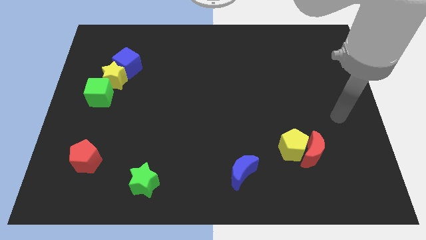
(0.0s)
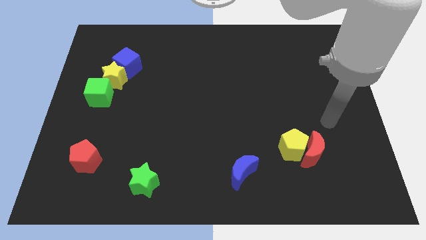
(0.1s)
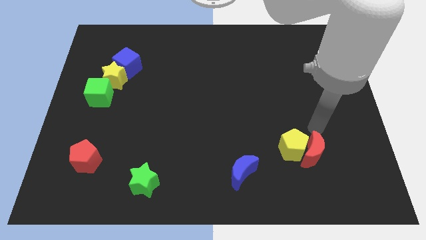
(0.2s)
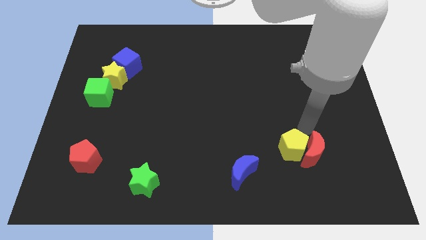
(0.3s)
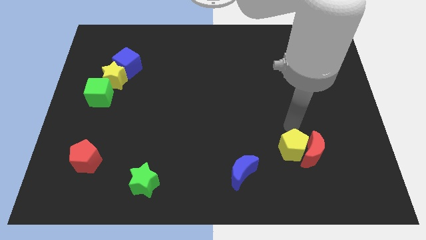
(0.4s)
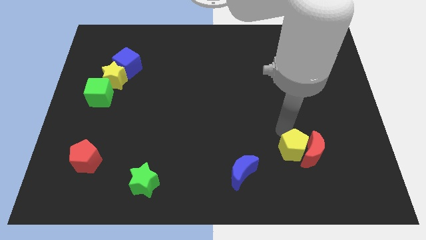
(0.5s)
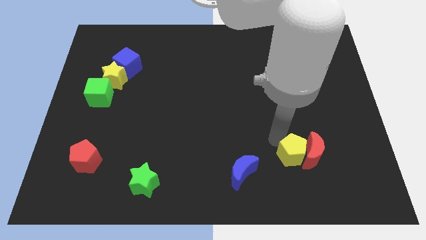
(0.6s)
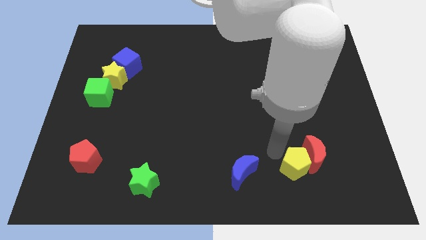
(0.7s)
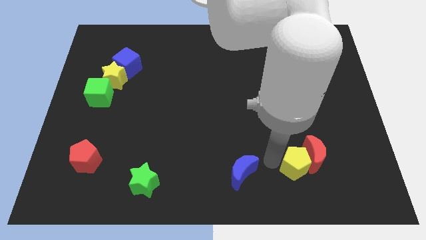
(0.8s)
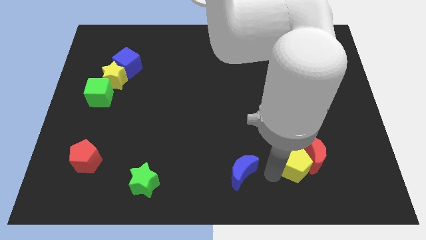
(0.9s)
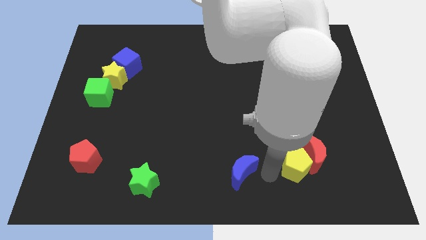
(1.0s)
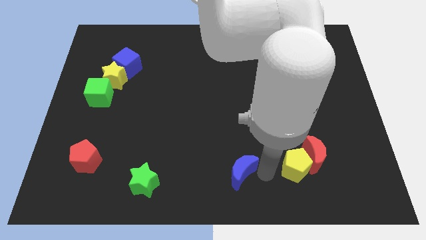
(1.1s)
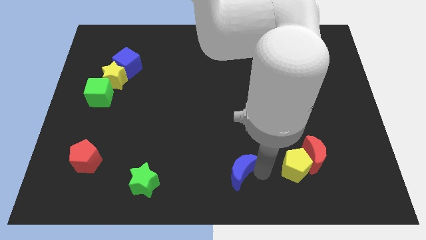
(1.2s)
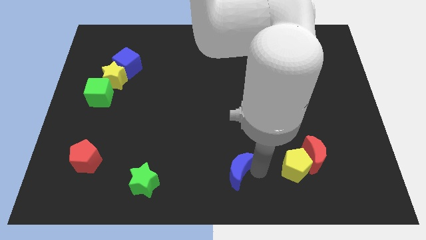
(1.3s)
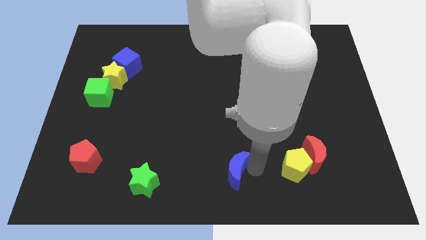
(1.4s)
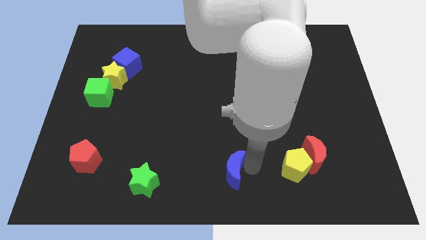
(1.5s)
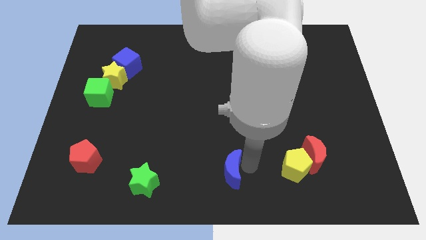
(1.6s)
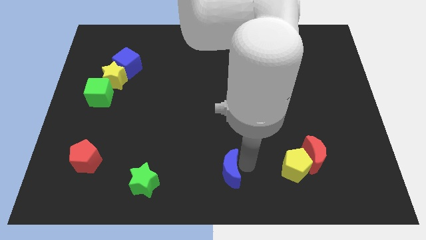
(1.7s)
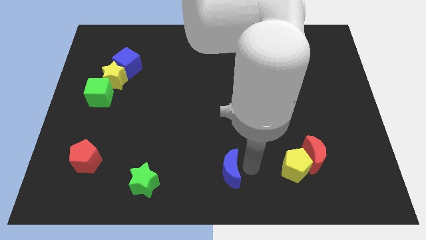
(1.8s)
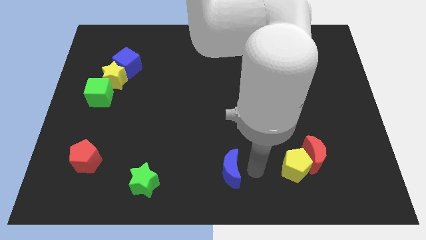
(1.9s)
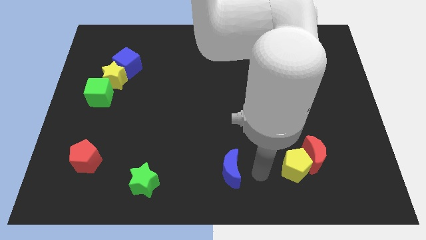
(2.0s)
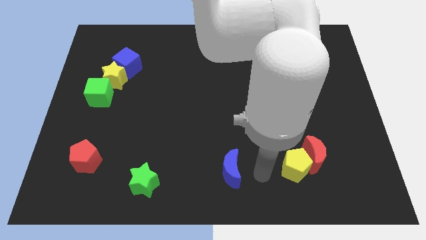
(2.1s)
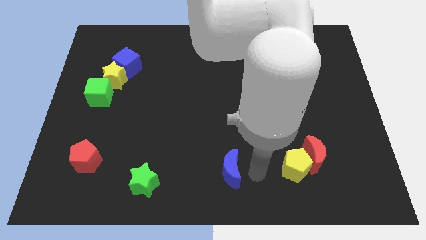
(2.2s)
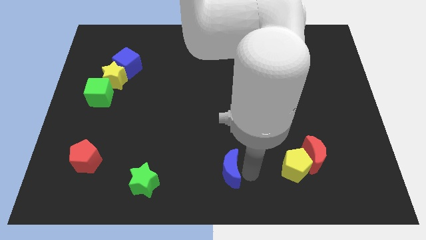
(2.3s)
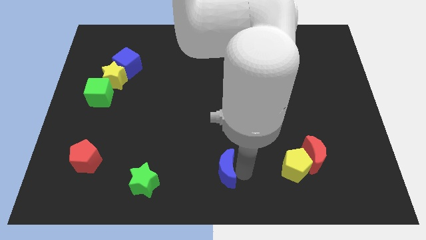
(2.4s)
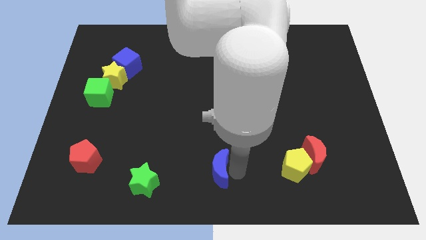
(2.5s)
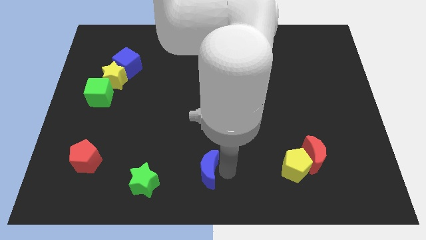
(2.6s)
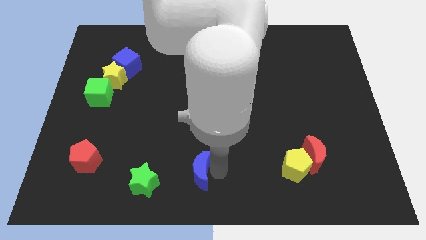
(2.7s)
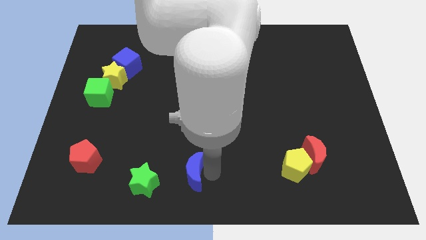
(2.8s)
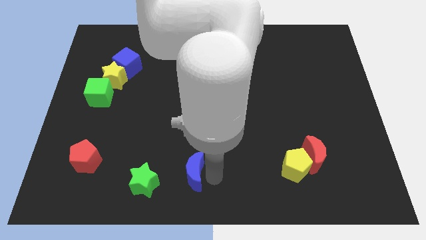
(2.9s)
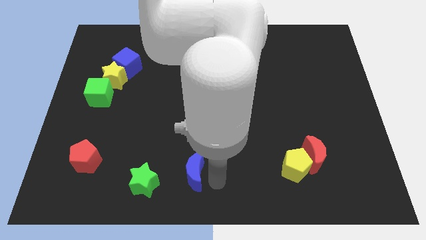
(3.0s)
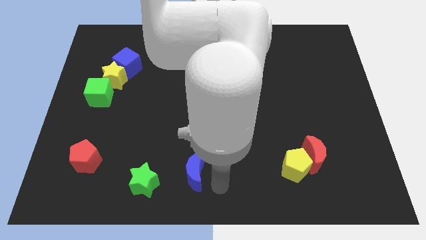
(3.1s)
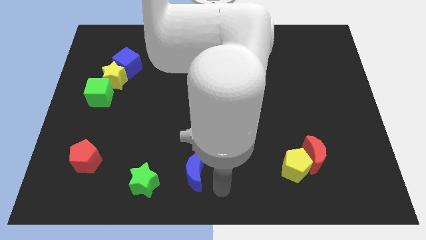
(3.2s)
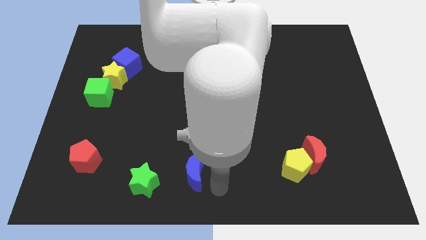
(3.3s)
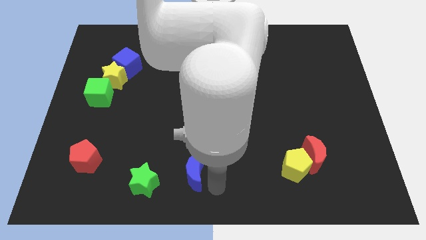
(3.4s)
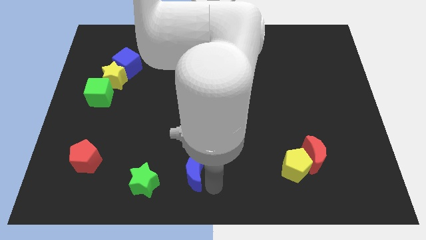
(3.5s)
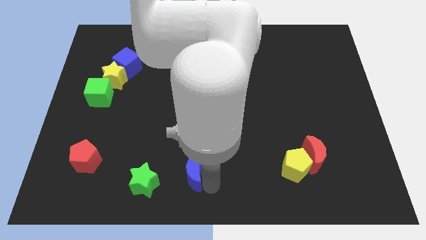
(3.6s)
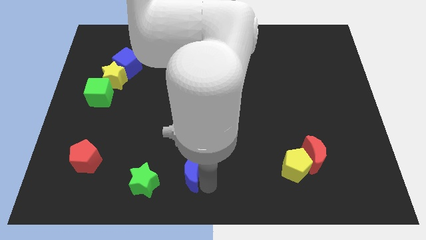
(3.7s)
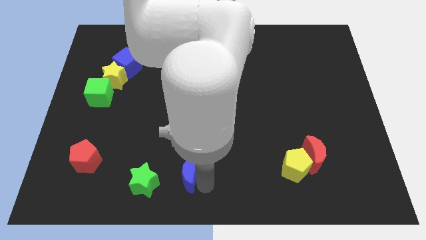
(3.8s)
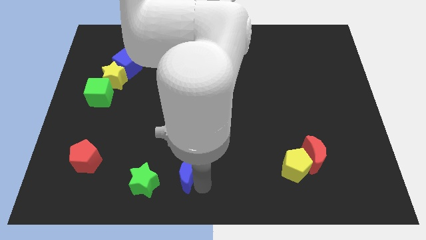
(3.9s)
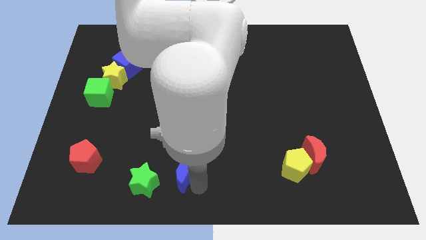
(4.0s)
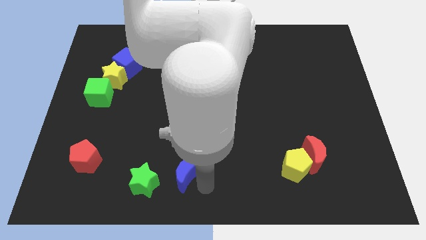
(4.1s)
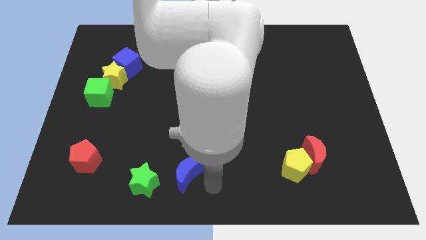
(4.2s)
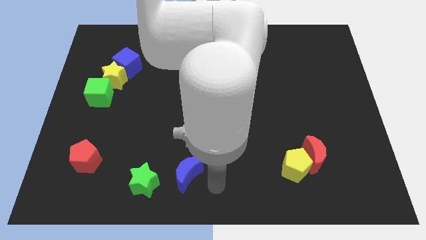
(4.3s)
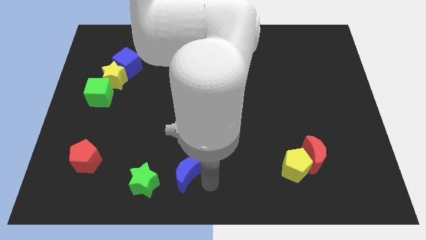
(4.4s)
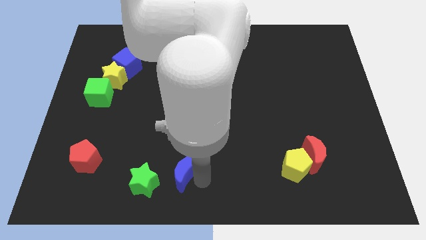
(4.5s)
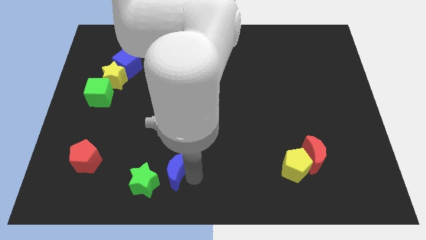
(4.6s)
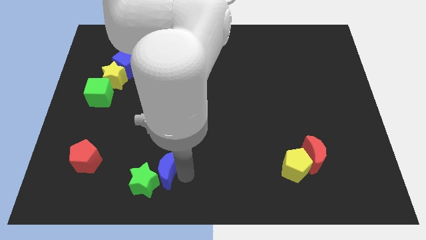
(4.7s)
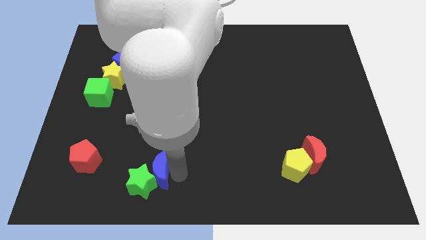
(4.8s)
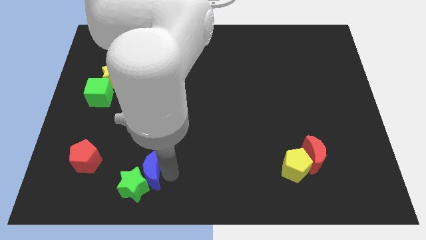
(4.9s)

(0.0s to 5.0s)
move the blue moon to the right of the red pentagon

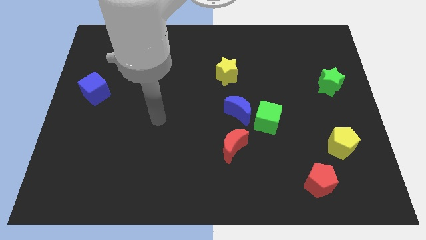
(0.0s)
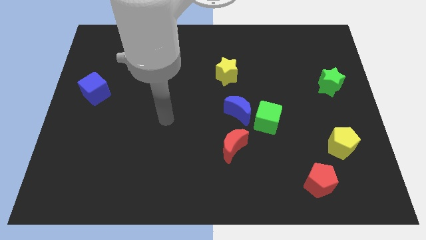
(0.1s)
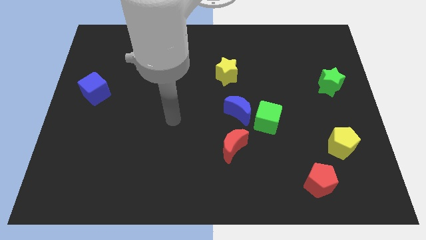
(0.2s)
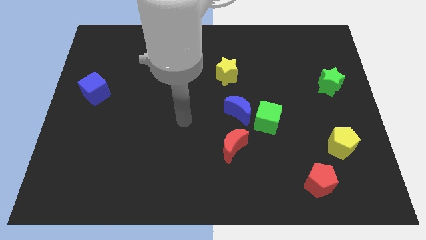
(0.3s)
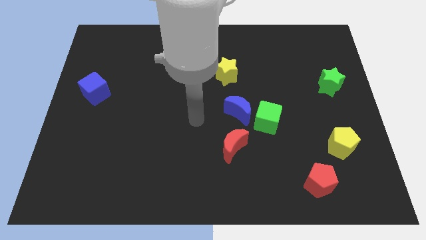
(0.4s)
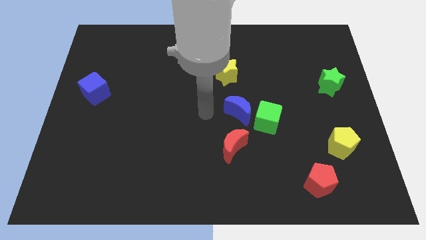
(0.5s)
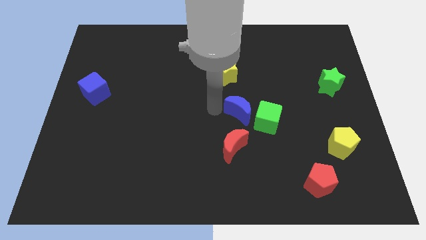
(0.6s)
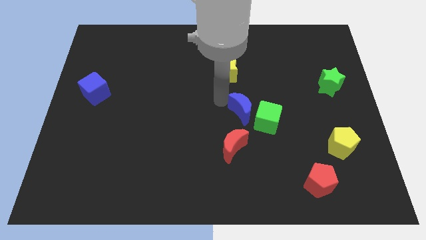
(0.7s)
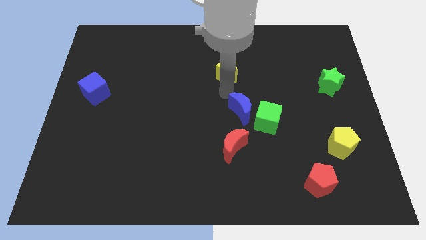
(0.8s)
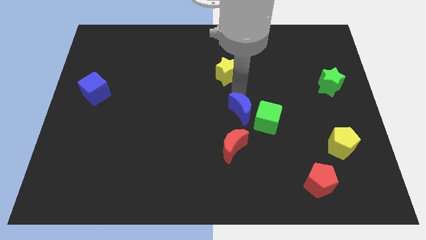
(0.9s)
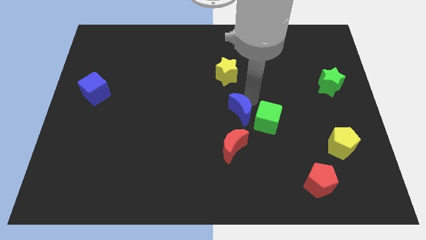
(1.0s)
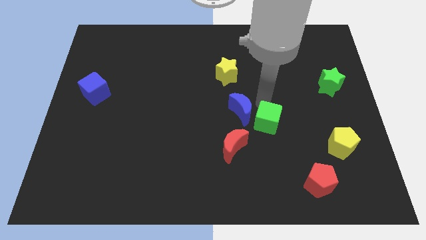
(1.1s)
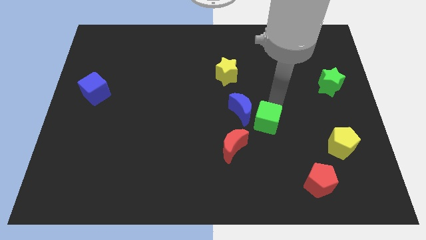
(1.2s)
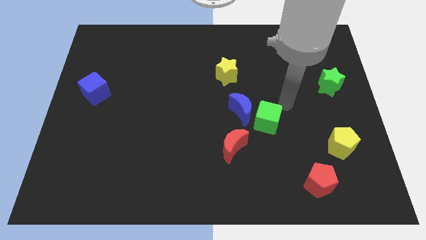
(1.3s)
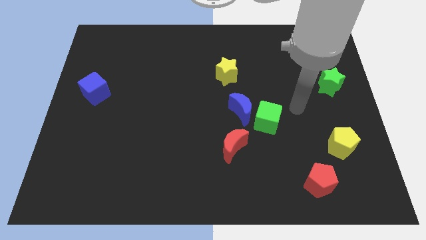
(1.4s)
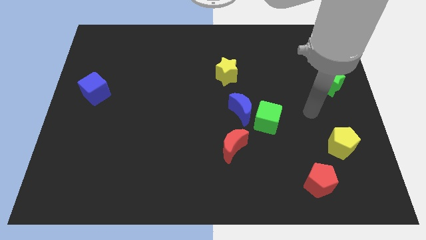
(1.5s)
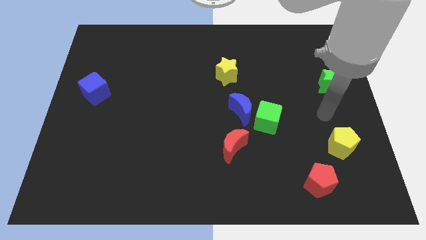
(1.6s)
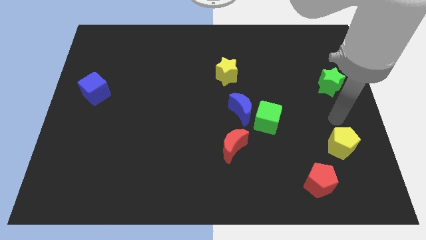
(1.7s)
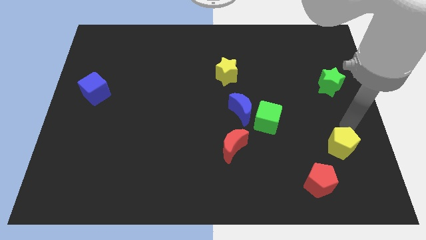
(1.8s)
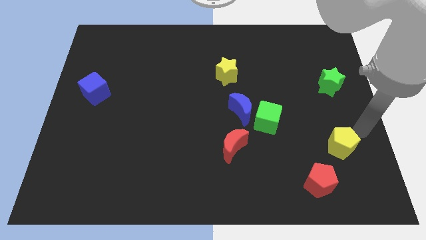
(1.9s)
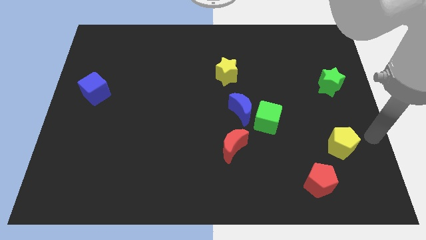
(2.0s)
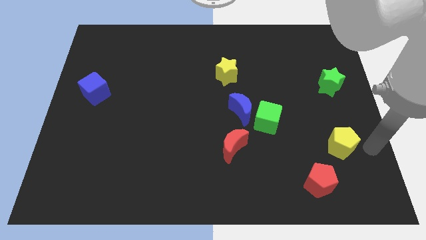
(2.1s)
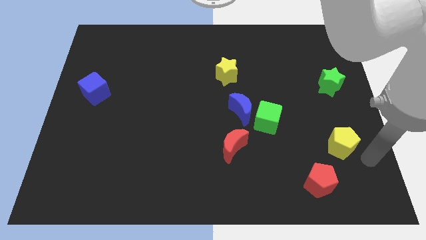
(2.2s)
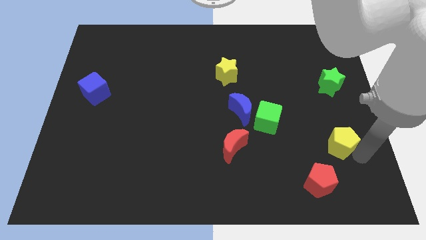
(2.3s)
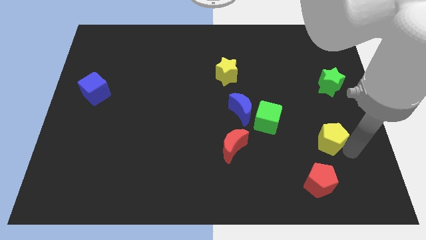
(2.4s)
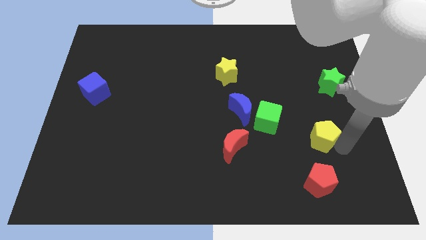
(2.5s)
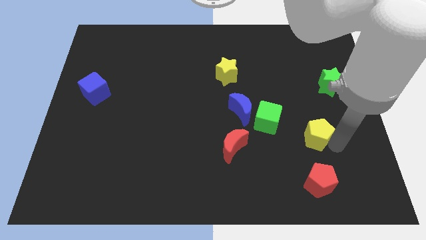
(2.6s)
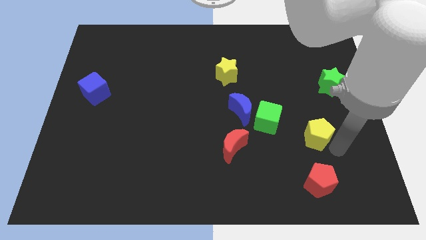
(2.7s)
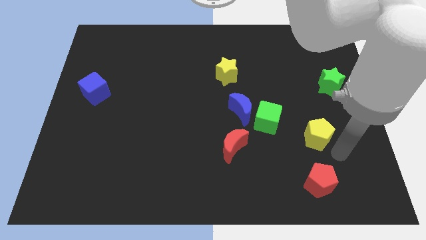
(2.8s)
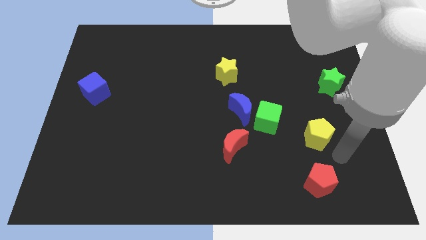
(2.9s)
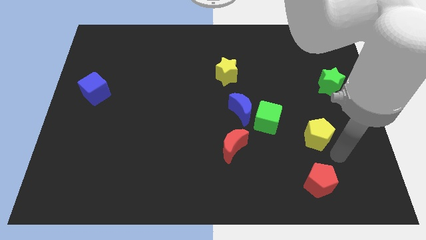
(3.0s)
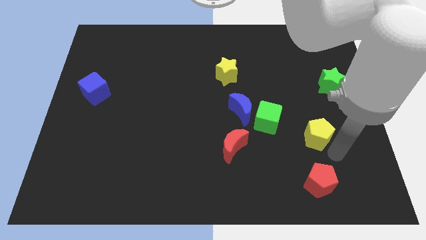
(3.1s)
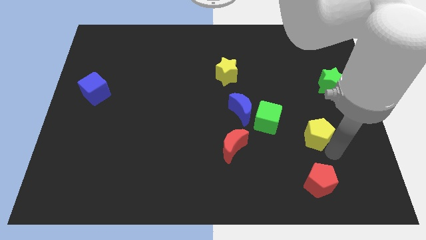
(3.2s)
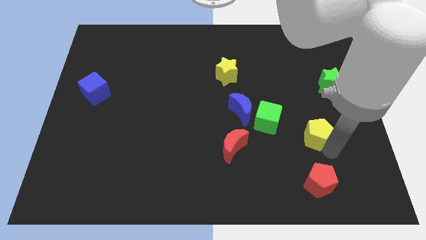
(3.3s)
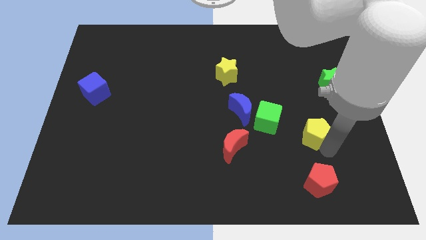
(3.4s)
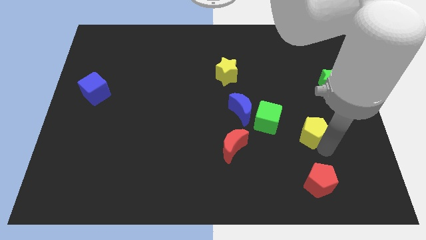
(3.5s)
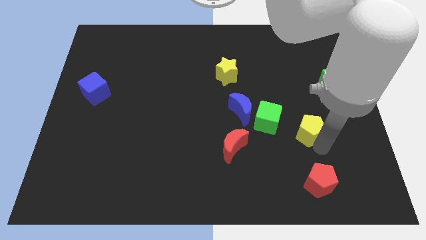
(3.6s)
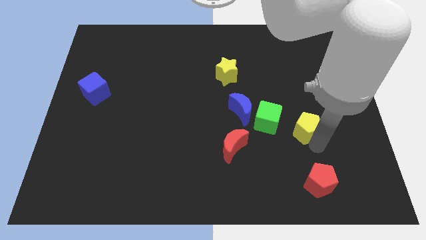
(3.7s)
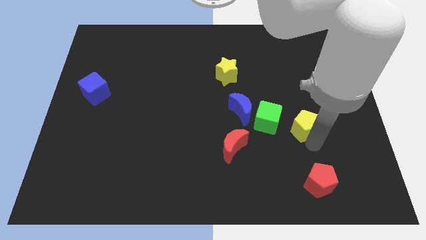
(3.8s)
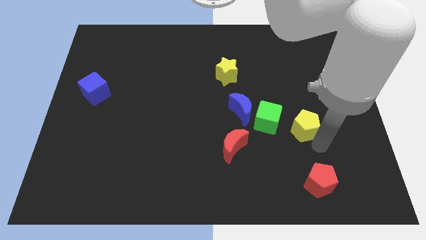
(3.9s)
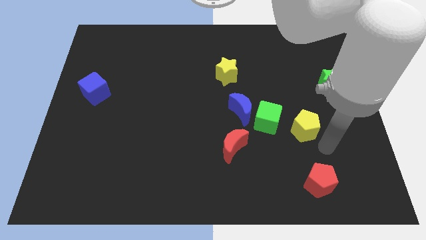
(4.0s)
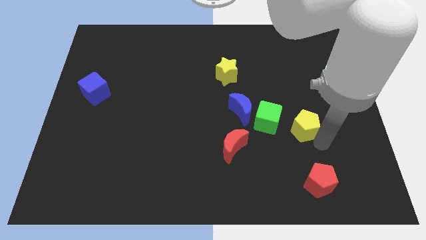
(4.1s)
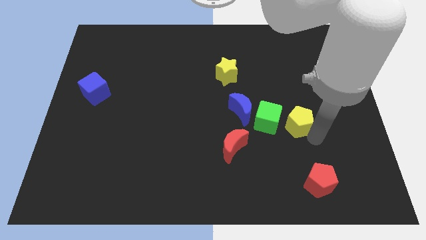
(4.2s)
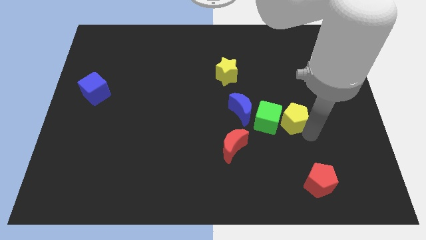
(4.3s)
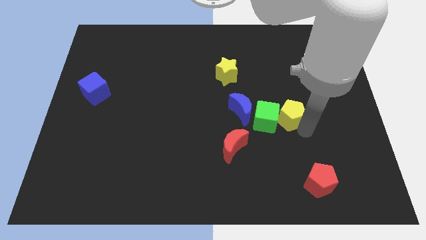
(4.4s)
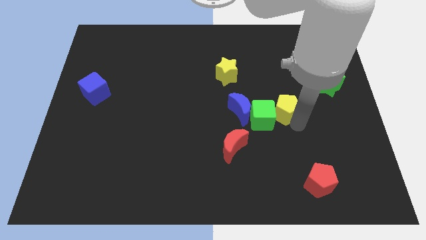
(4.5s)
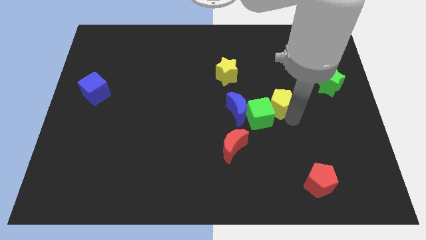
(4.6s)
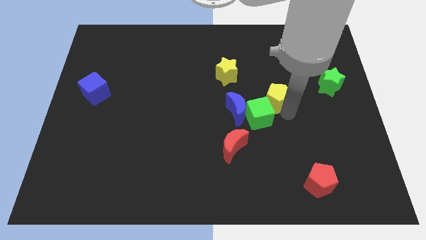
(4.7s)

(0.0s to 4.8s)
push the yellow pentagon diagonally up and to the right of the blue moon
